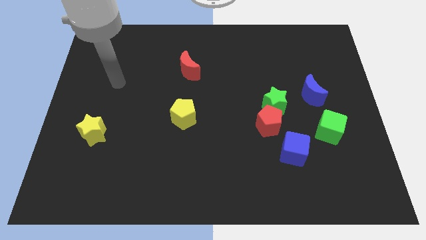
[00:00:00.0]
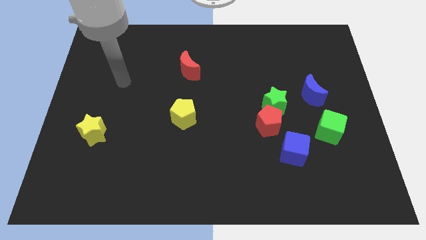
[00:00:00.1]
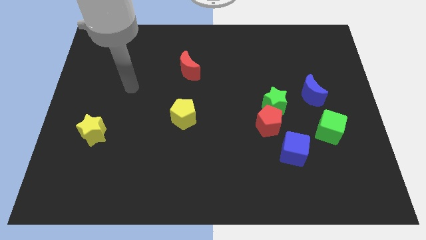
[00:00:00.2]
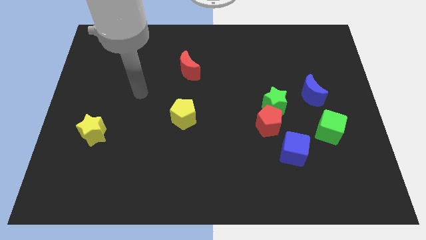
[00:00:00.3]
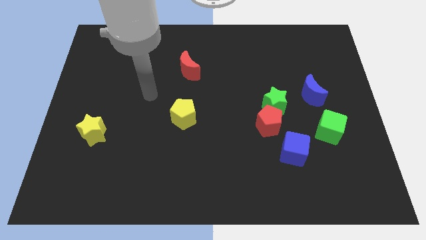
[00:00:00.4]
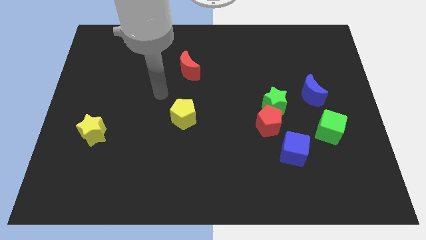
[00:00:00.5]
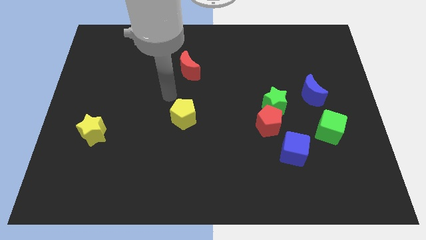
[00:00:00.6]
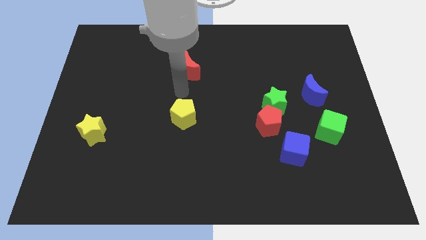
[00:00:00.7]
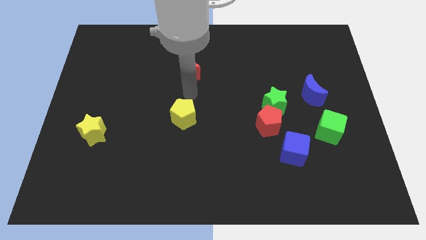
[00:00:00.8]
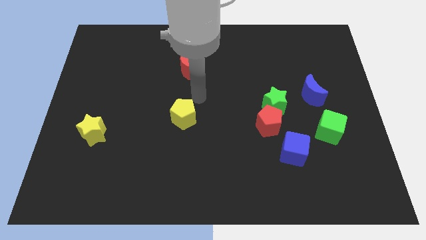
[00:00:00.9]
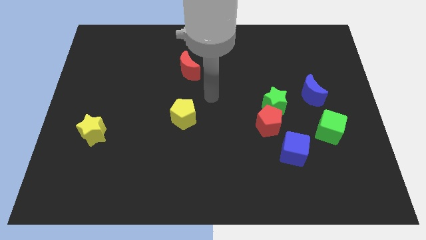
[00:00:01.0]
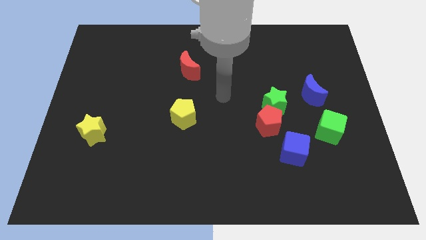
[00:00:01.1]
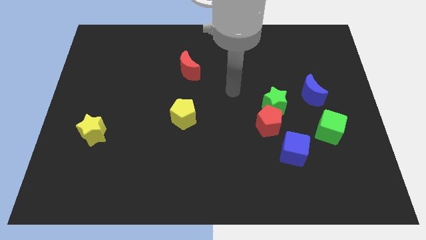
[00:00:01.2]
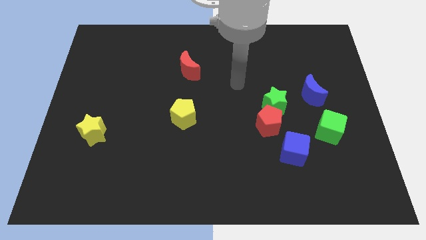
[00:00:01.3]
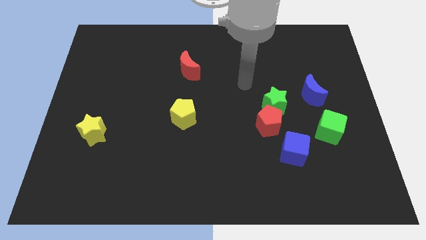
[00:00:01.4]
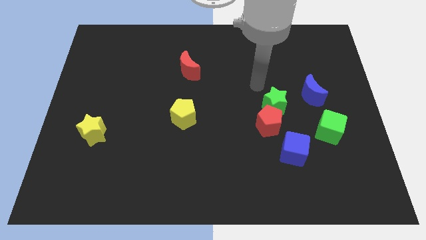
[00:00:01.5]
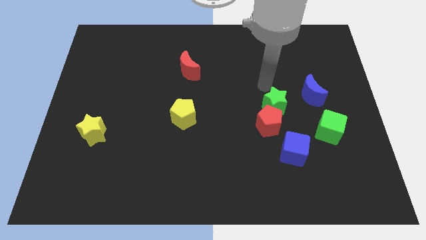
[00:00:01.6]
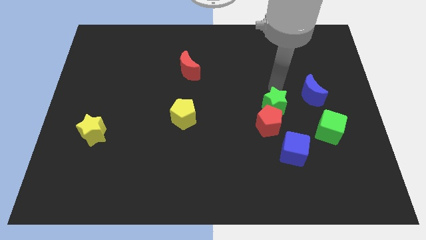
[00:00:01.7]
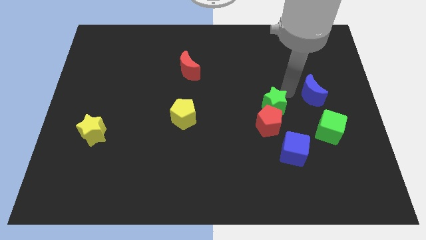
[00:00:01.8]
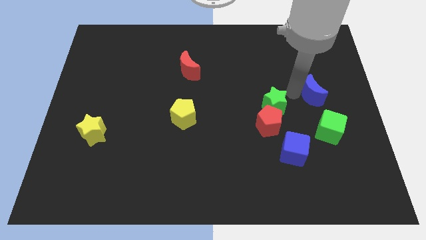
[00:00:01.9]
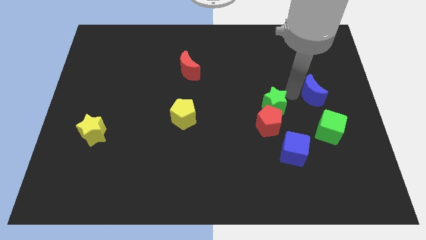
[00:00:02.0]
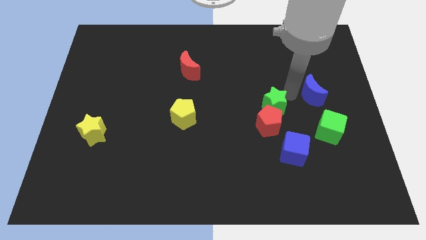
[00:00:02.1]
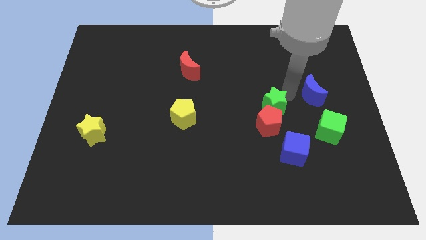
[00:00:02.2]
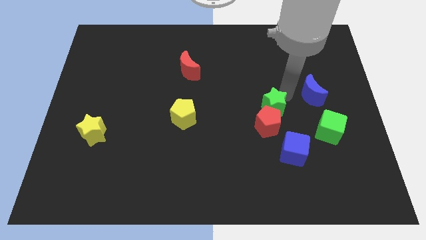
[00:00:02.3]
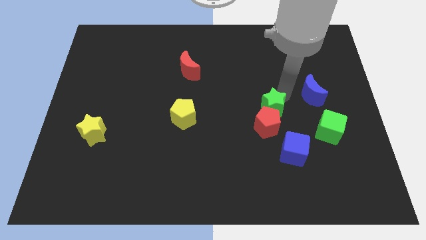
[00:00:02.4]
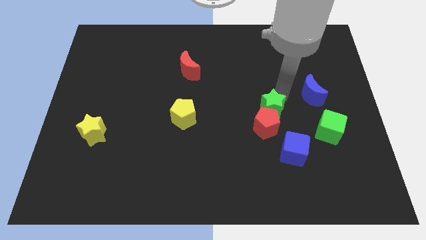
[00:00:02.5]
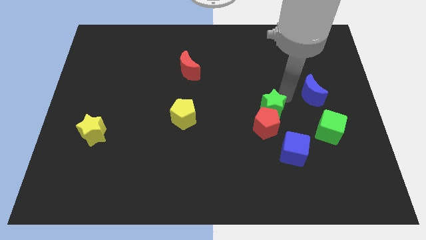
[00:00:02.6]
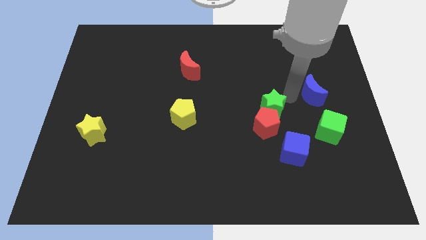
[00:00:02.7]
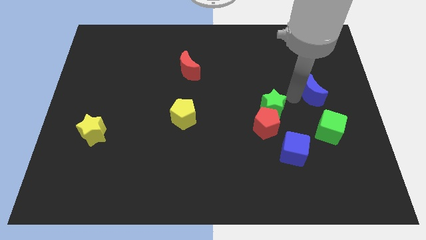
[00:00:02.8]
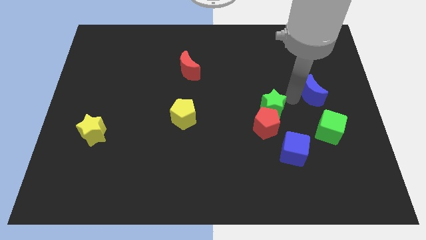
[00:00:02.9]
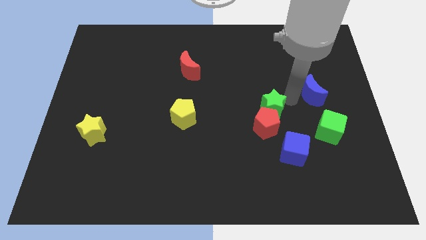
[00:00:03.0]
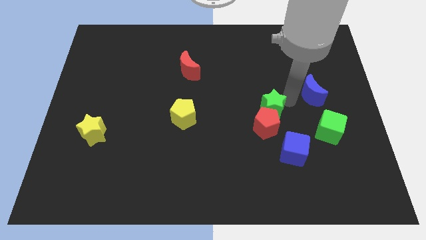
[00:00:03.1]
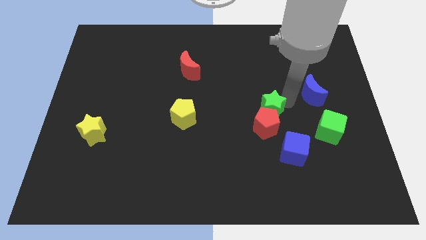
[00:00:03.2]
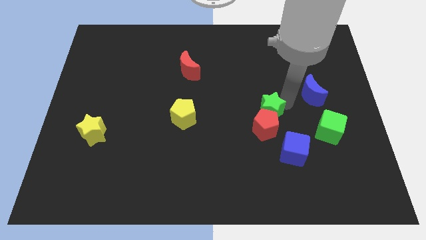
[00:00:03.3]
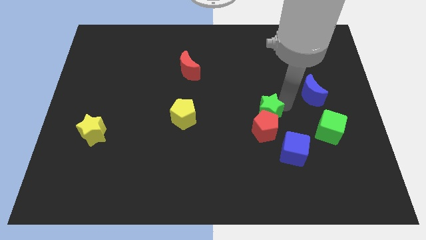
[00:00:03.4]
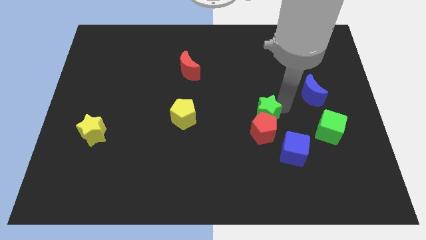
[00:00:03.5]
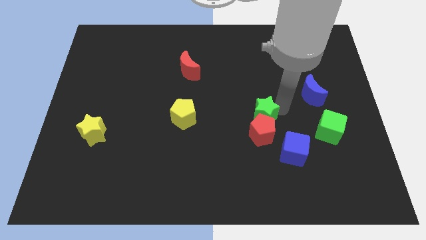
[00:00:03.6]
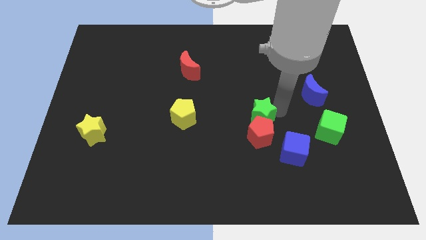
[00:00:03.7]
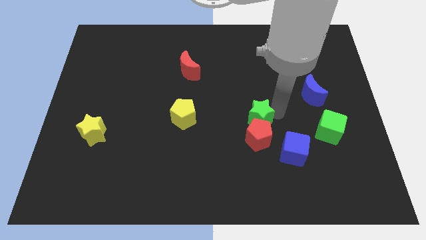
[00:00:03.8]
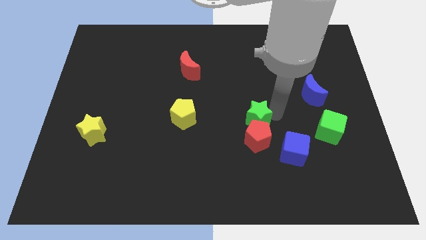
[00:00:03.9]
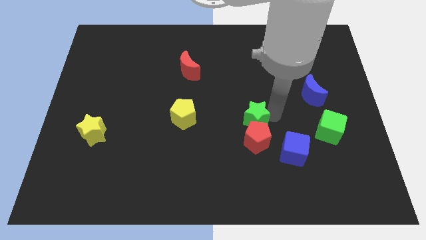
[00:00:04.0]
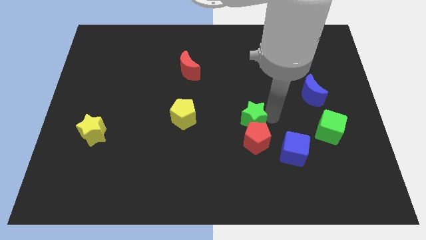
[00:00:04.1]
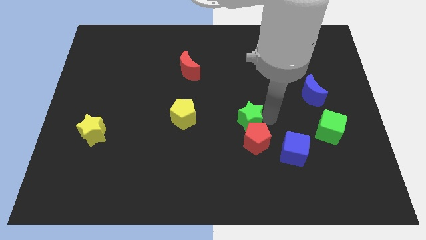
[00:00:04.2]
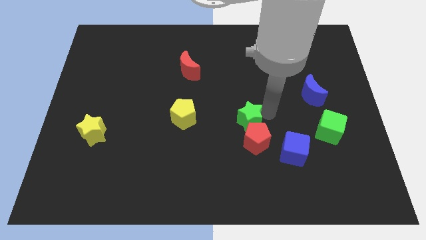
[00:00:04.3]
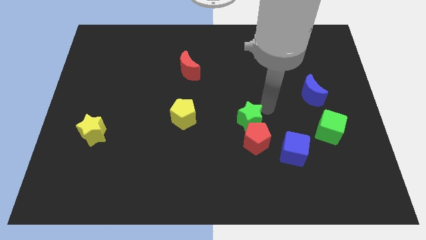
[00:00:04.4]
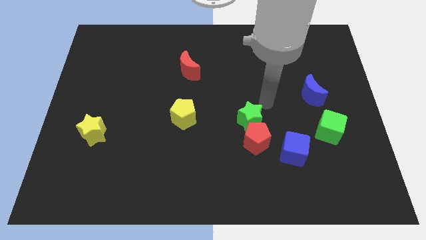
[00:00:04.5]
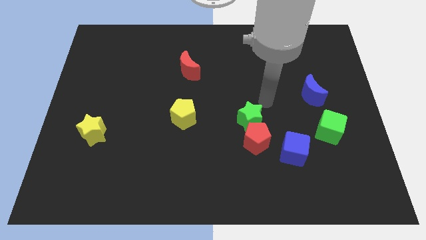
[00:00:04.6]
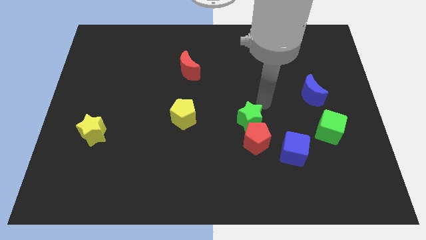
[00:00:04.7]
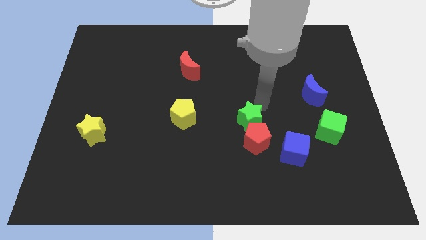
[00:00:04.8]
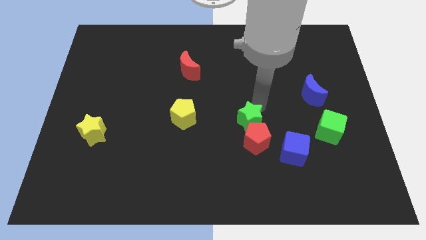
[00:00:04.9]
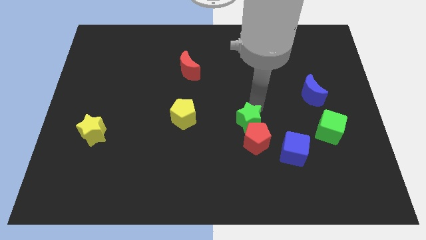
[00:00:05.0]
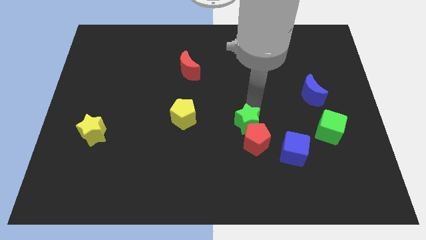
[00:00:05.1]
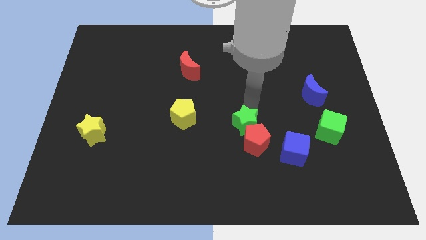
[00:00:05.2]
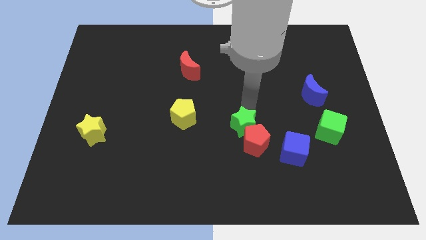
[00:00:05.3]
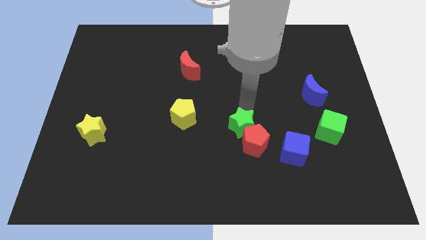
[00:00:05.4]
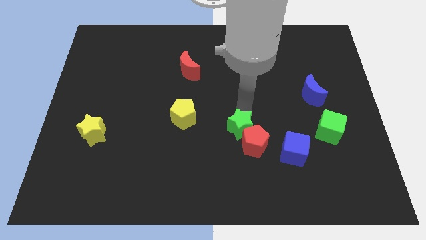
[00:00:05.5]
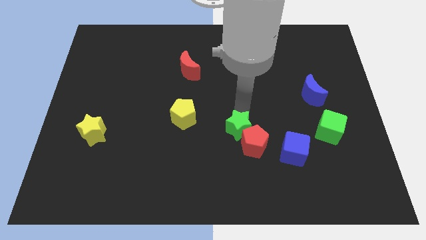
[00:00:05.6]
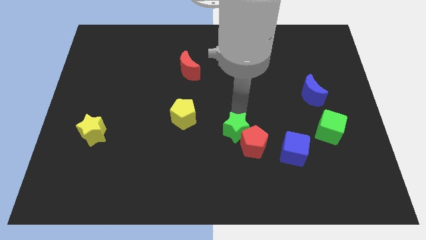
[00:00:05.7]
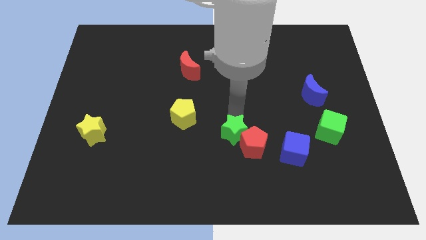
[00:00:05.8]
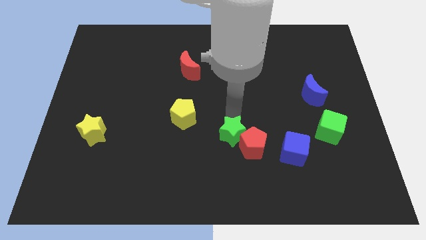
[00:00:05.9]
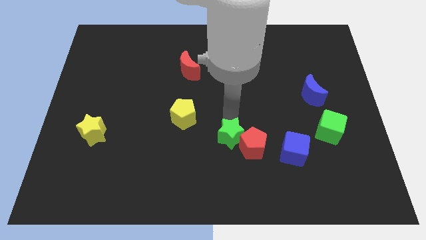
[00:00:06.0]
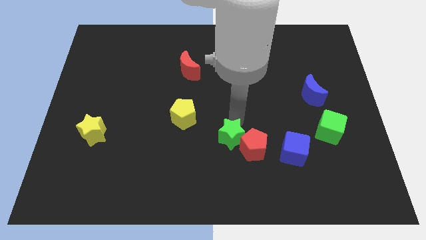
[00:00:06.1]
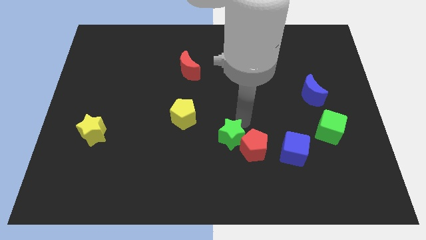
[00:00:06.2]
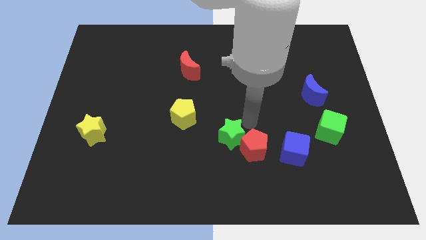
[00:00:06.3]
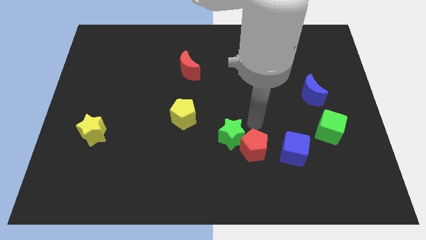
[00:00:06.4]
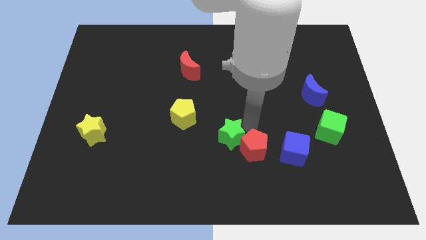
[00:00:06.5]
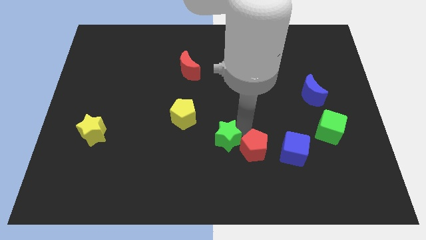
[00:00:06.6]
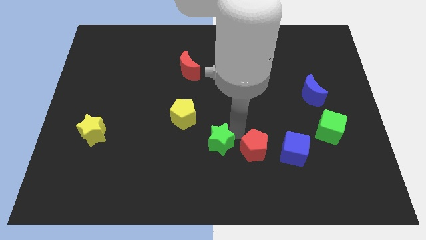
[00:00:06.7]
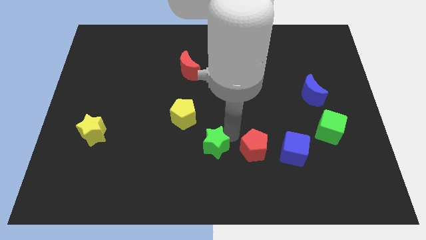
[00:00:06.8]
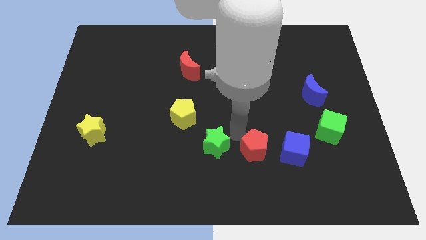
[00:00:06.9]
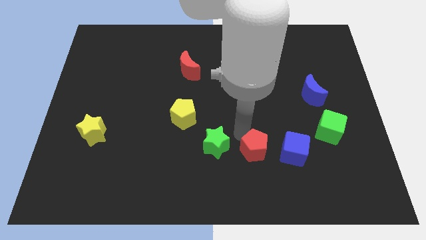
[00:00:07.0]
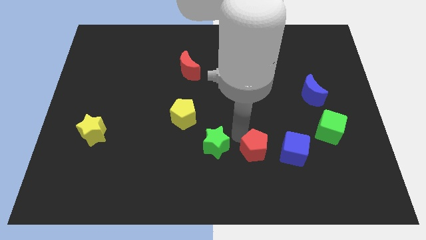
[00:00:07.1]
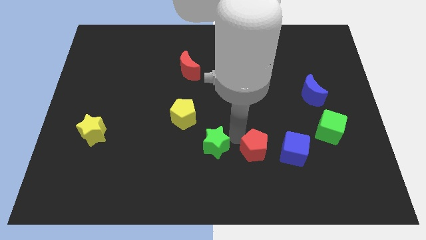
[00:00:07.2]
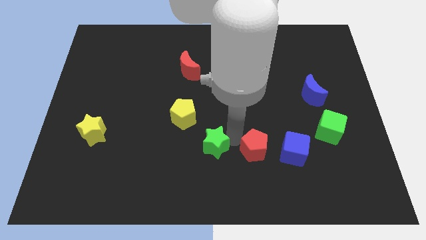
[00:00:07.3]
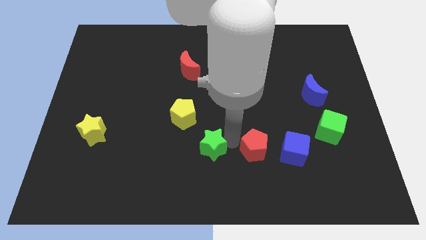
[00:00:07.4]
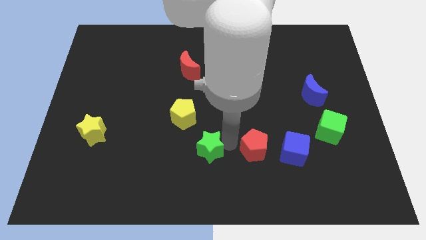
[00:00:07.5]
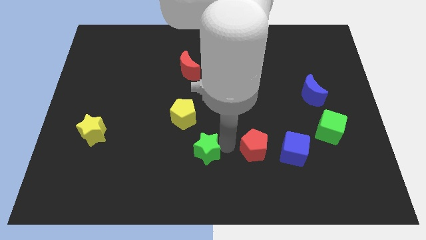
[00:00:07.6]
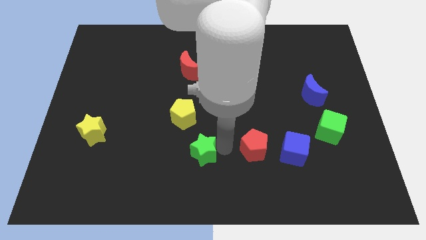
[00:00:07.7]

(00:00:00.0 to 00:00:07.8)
move the green star to the bottom of the yellow pentagon

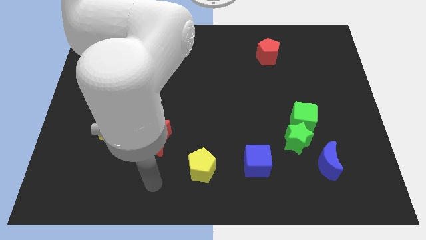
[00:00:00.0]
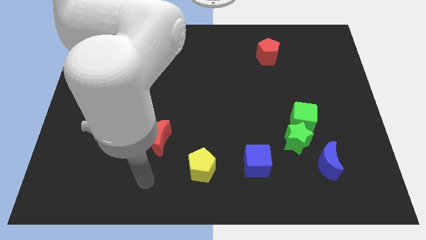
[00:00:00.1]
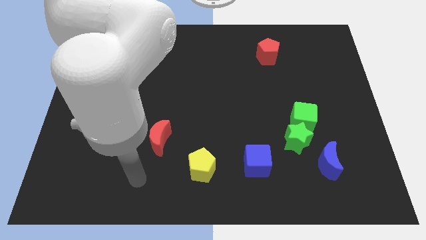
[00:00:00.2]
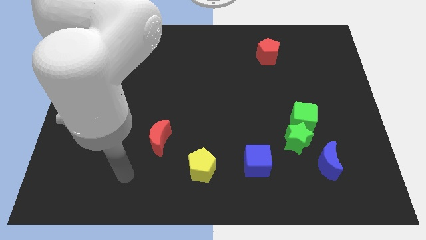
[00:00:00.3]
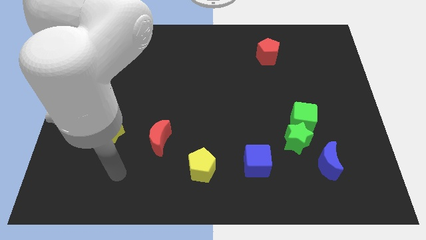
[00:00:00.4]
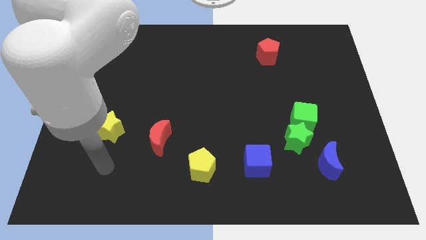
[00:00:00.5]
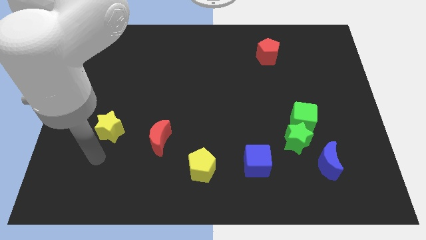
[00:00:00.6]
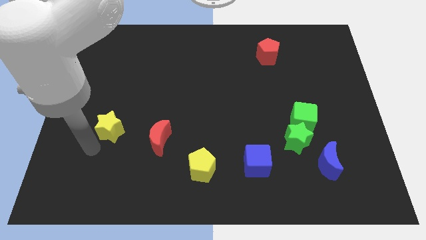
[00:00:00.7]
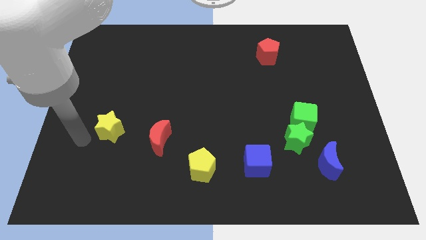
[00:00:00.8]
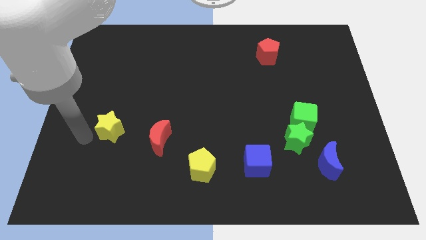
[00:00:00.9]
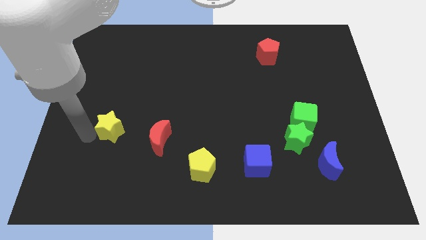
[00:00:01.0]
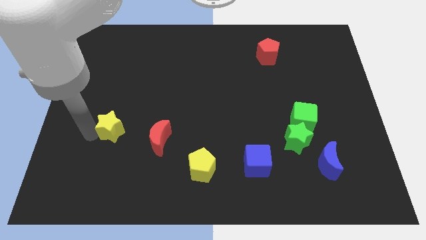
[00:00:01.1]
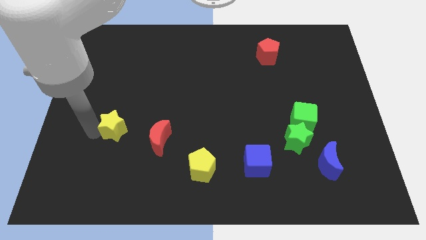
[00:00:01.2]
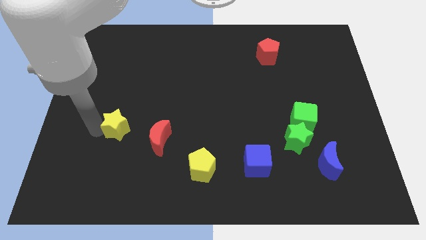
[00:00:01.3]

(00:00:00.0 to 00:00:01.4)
push the yellow star to the top left side of the red moon
